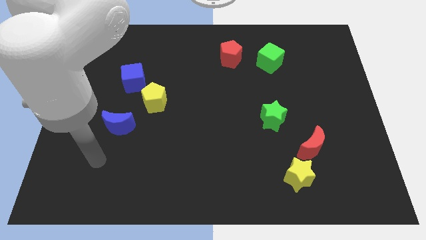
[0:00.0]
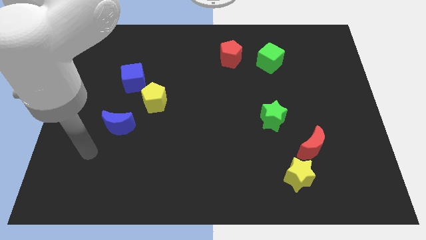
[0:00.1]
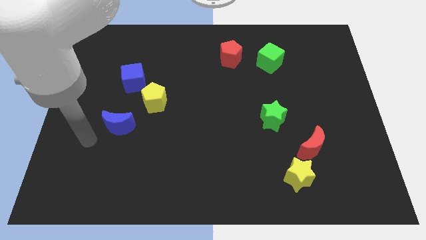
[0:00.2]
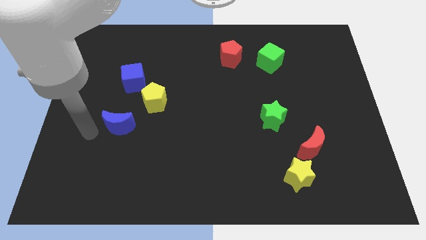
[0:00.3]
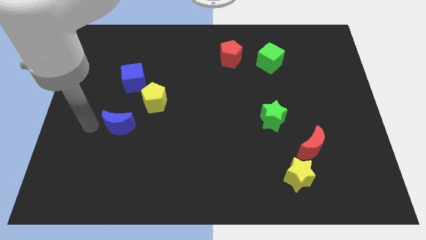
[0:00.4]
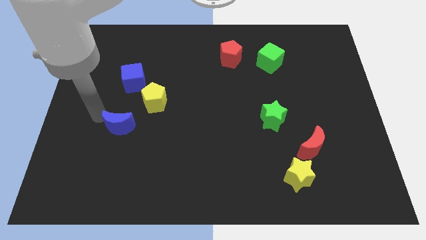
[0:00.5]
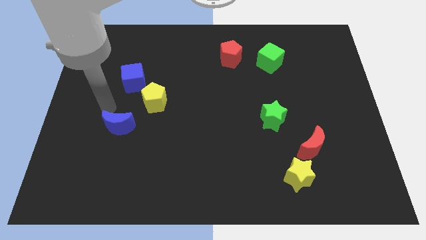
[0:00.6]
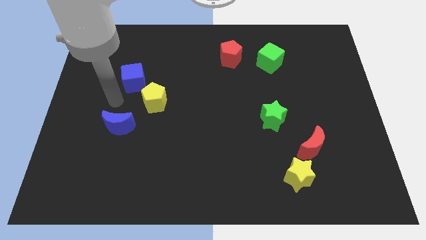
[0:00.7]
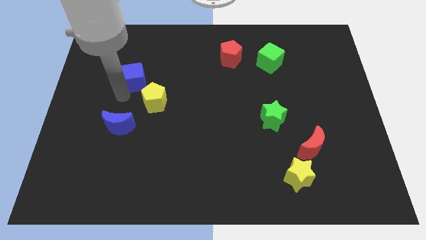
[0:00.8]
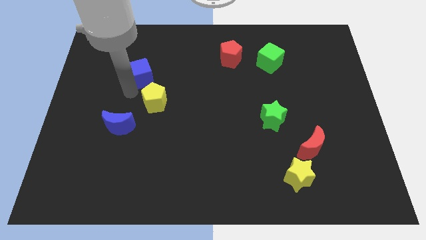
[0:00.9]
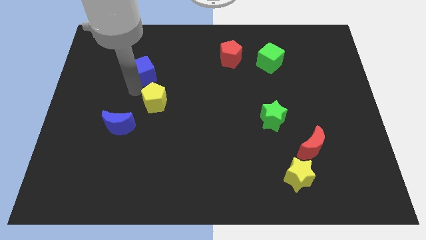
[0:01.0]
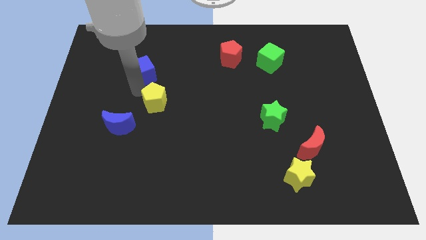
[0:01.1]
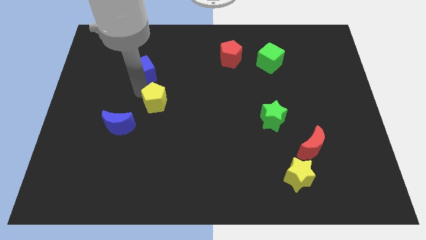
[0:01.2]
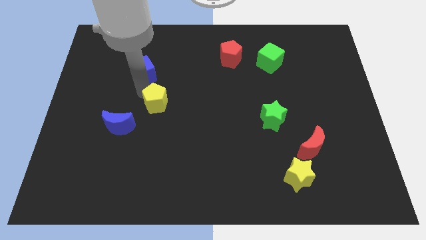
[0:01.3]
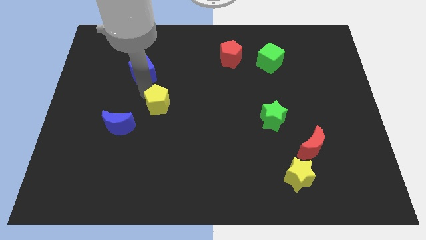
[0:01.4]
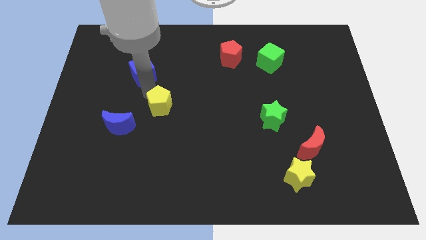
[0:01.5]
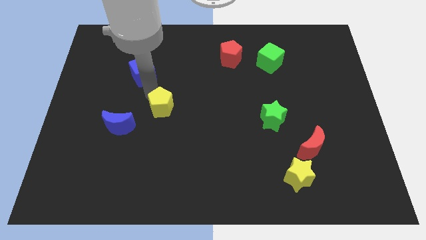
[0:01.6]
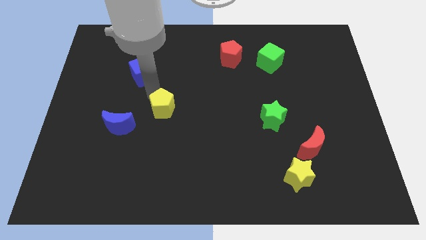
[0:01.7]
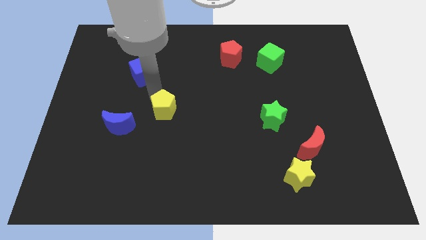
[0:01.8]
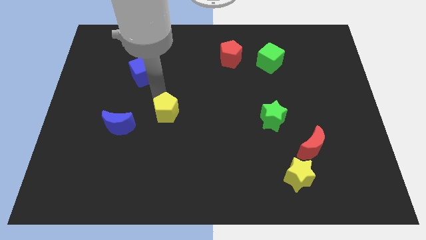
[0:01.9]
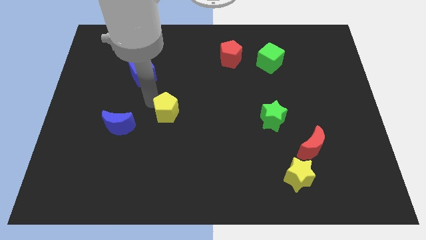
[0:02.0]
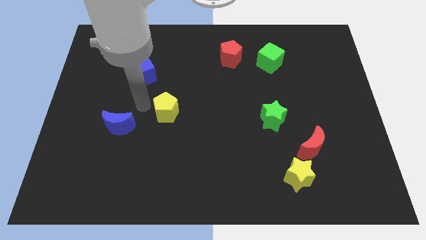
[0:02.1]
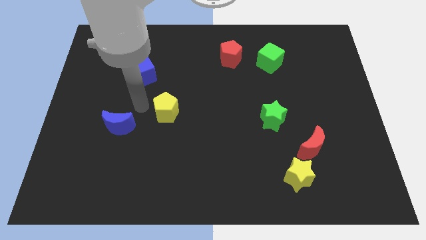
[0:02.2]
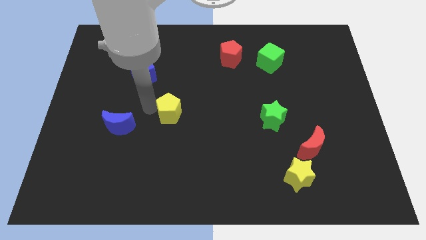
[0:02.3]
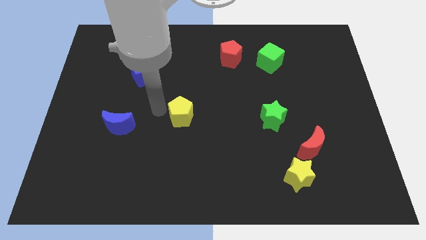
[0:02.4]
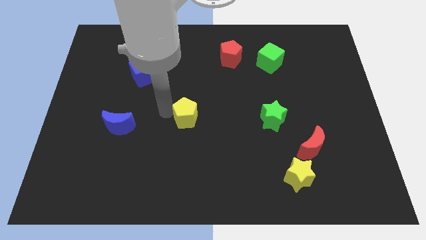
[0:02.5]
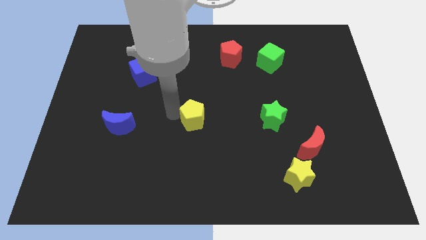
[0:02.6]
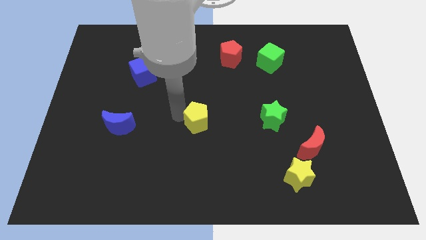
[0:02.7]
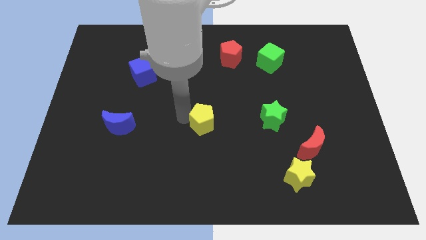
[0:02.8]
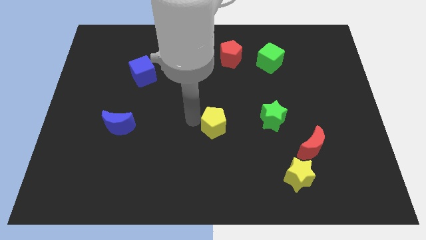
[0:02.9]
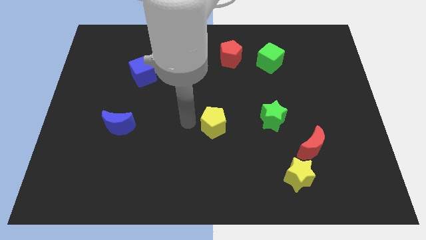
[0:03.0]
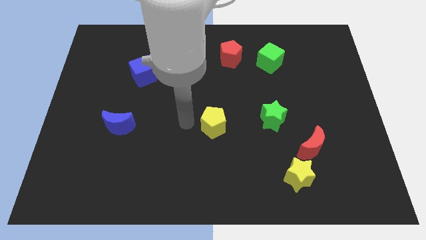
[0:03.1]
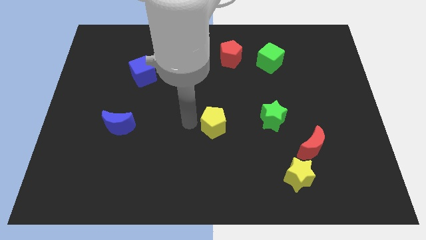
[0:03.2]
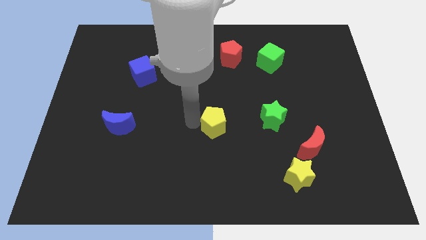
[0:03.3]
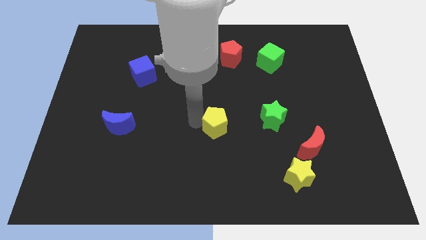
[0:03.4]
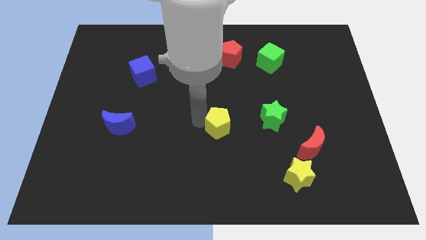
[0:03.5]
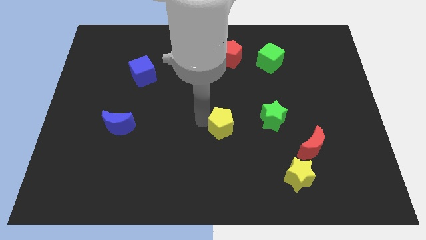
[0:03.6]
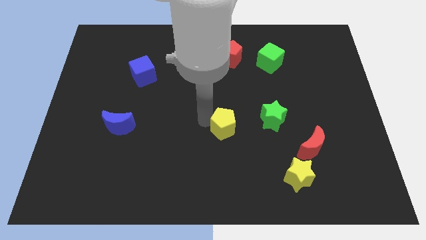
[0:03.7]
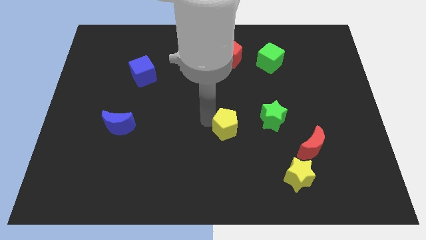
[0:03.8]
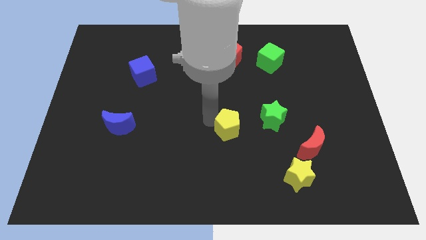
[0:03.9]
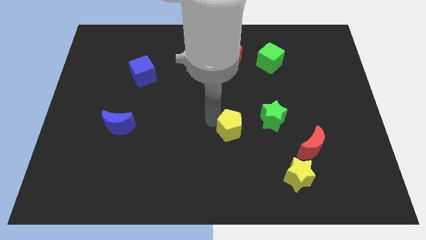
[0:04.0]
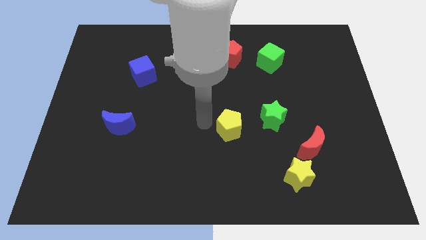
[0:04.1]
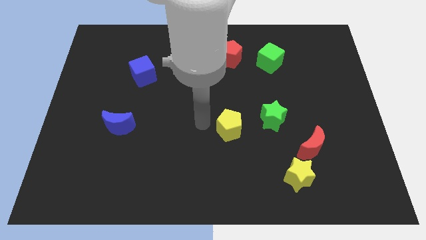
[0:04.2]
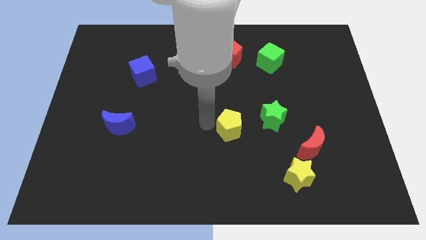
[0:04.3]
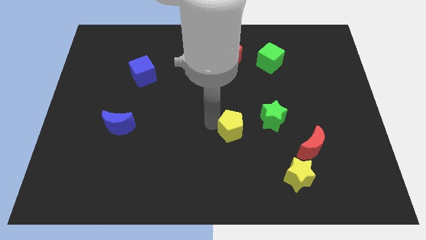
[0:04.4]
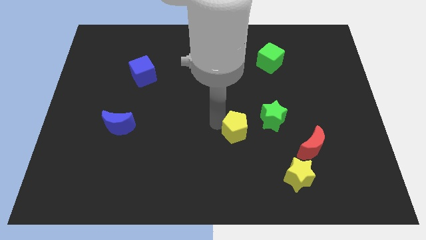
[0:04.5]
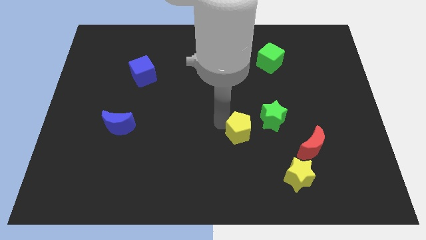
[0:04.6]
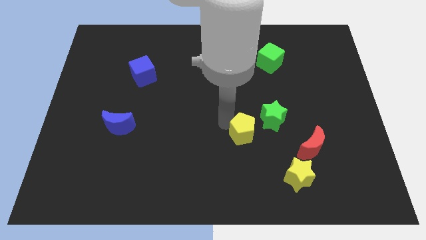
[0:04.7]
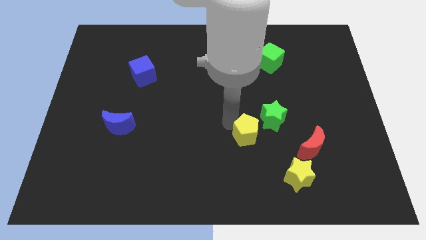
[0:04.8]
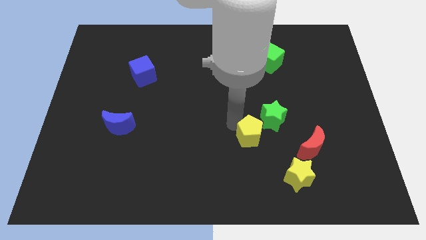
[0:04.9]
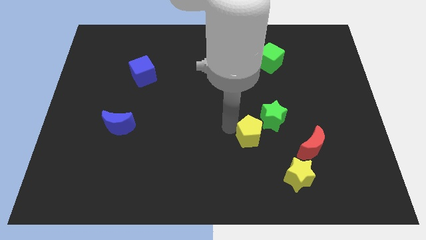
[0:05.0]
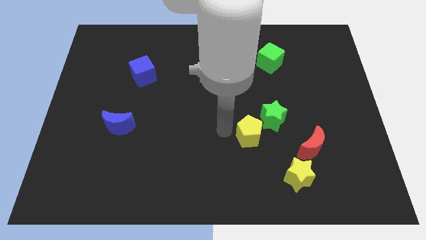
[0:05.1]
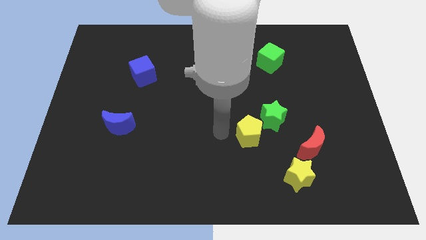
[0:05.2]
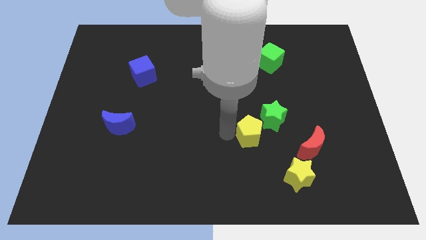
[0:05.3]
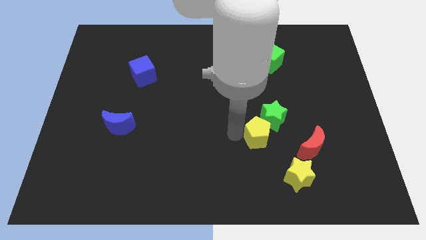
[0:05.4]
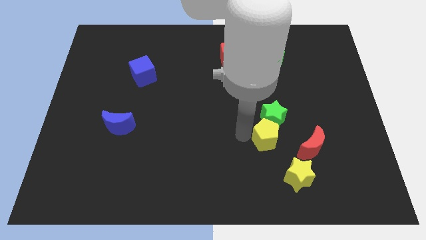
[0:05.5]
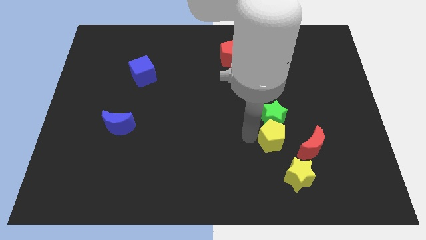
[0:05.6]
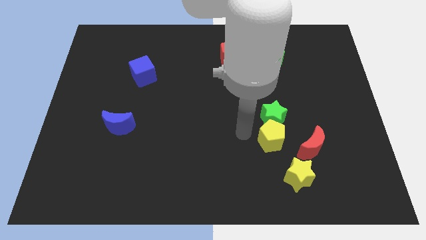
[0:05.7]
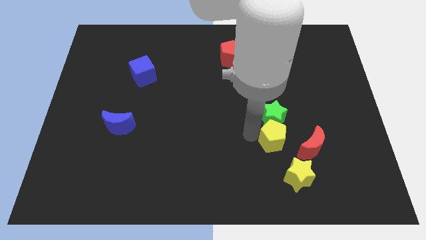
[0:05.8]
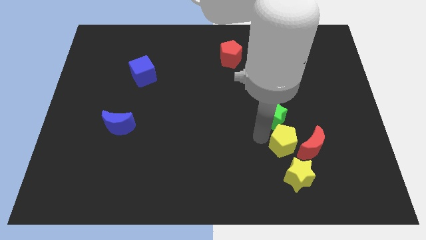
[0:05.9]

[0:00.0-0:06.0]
slide the yellow pentagon next to the red moon

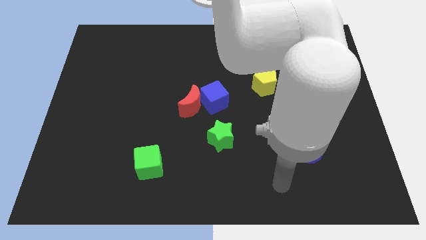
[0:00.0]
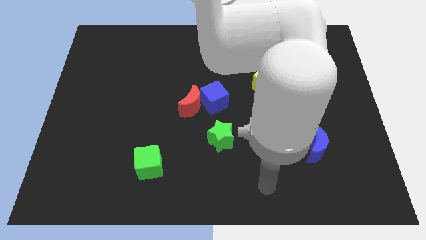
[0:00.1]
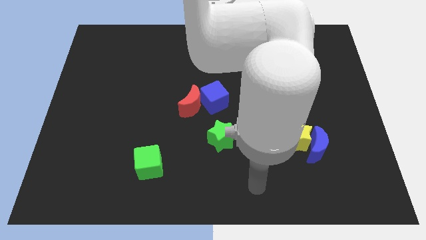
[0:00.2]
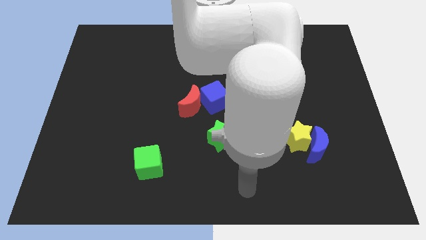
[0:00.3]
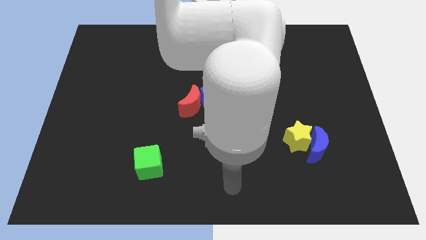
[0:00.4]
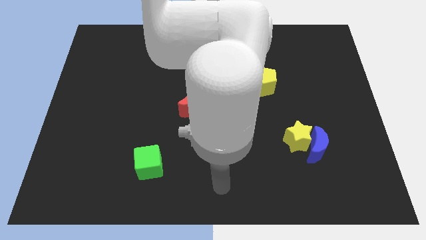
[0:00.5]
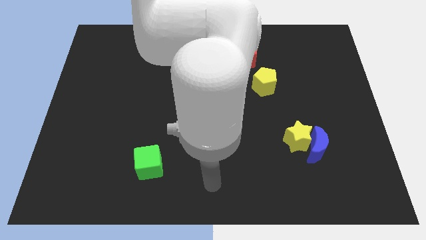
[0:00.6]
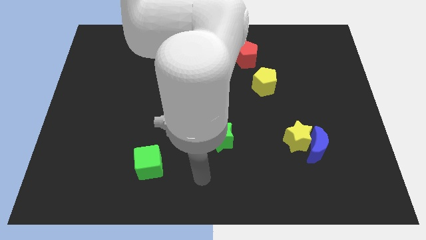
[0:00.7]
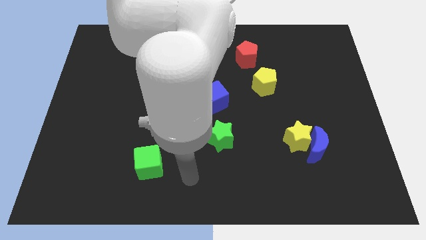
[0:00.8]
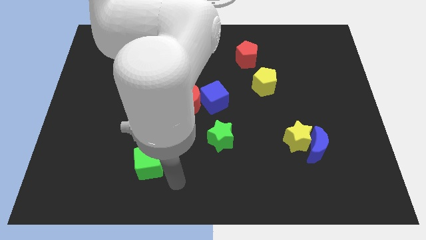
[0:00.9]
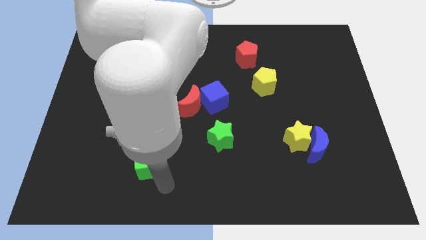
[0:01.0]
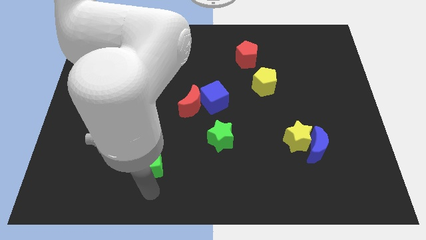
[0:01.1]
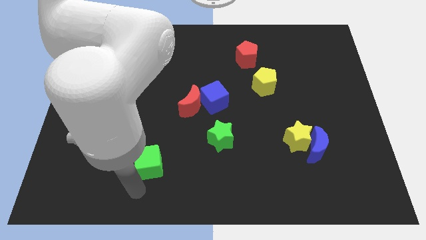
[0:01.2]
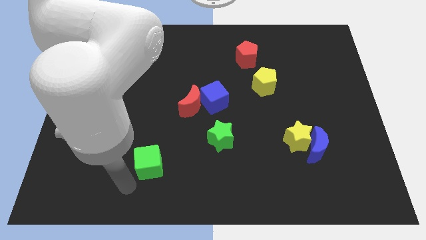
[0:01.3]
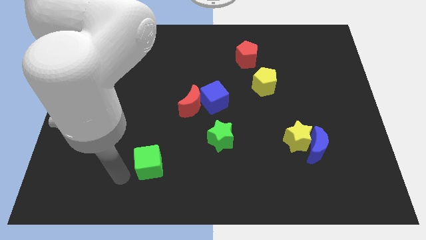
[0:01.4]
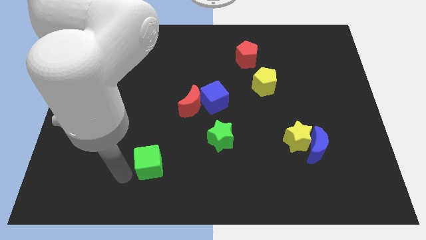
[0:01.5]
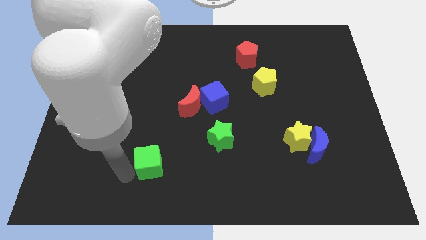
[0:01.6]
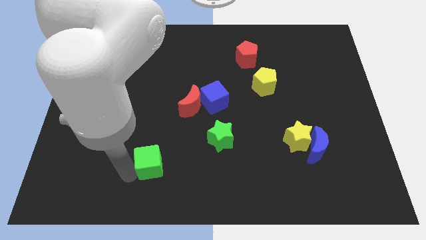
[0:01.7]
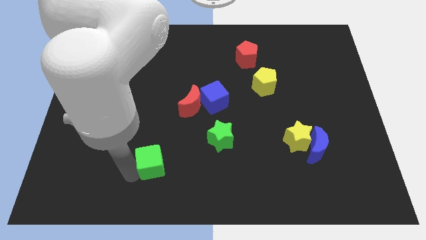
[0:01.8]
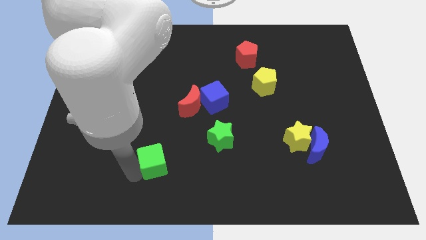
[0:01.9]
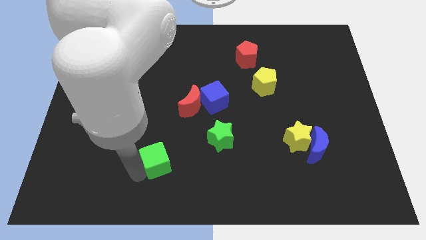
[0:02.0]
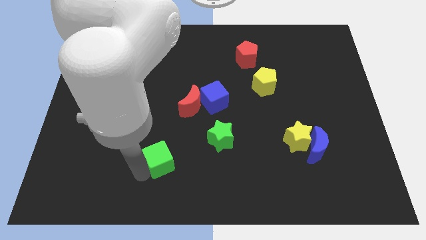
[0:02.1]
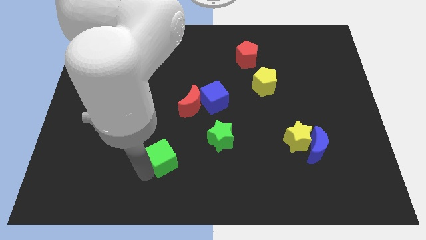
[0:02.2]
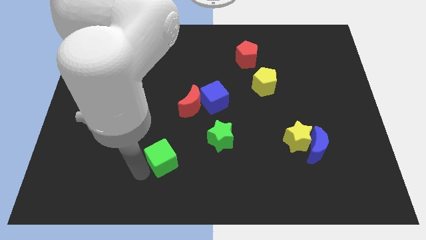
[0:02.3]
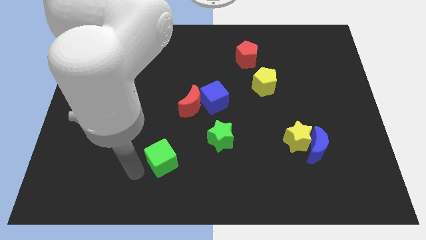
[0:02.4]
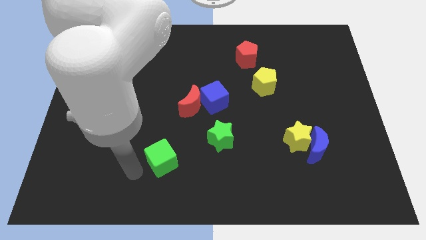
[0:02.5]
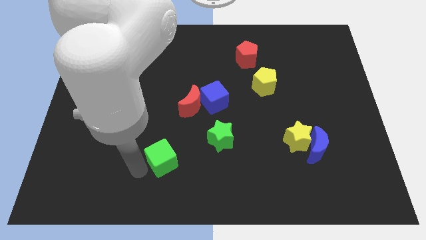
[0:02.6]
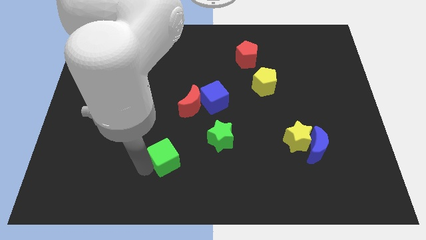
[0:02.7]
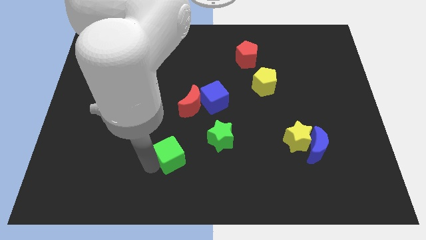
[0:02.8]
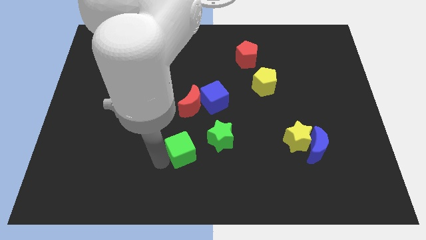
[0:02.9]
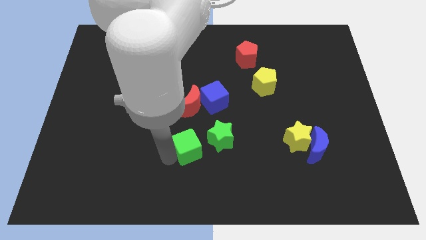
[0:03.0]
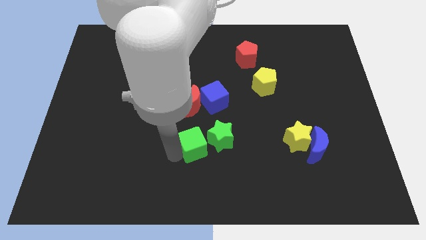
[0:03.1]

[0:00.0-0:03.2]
move the green cube close to the green star
